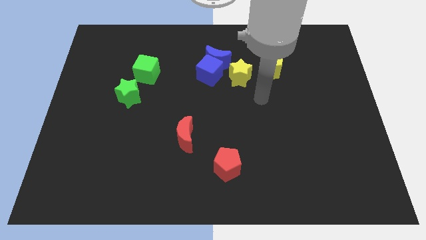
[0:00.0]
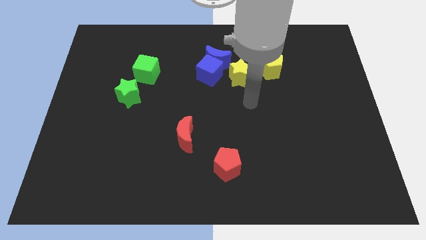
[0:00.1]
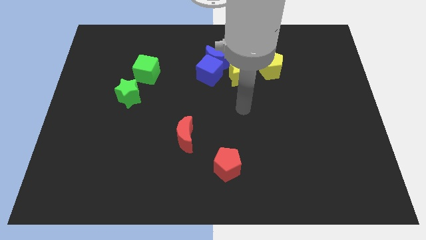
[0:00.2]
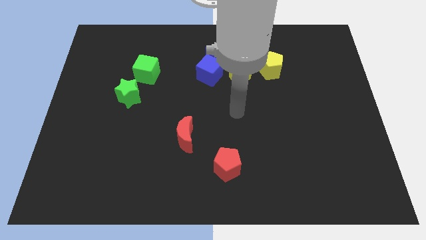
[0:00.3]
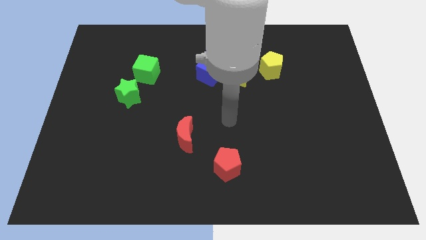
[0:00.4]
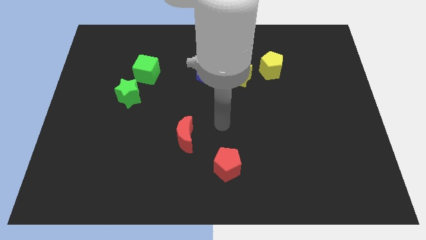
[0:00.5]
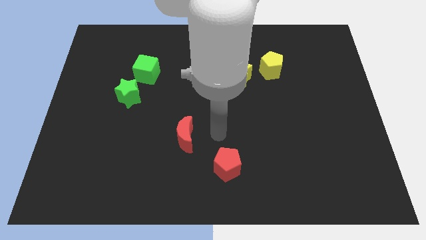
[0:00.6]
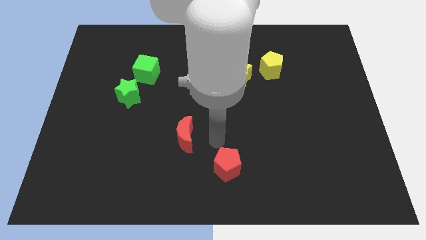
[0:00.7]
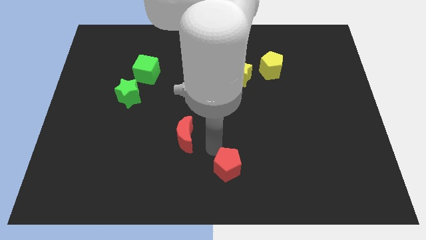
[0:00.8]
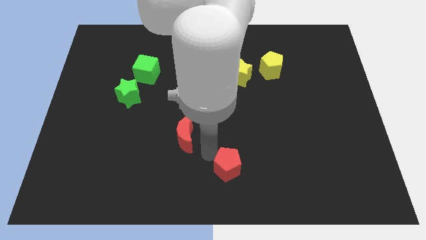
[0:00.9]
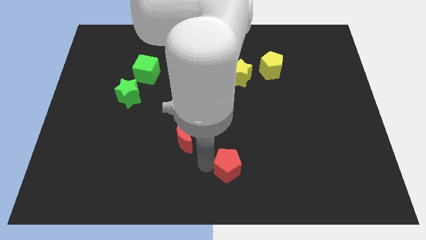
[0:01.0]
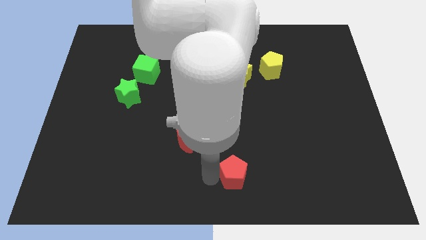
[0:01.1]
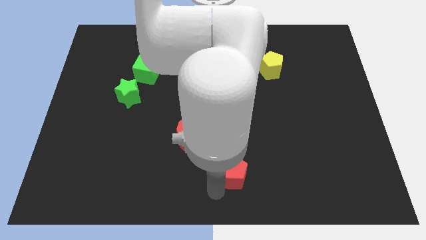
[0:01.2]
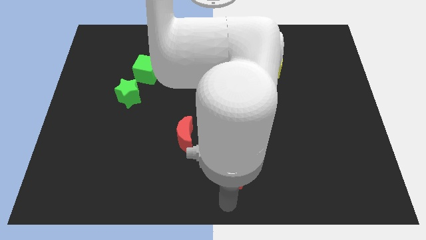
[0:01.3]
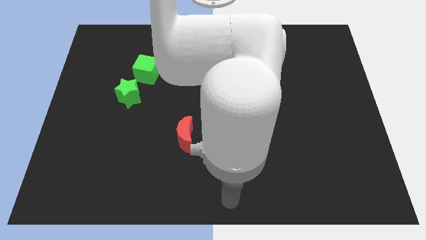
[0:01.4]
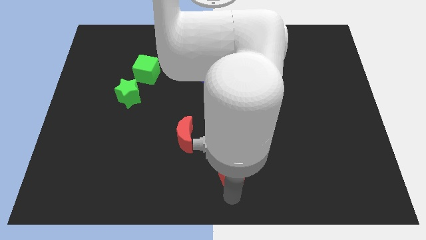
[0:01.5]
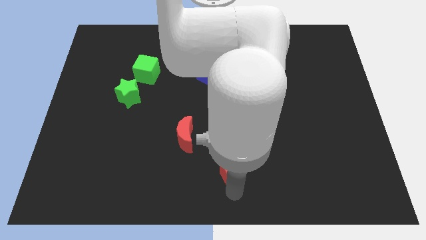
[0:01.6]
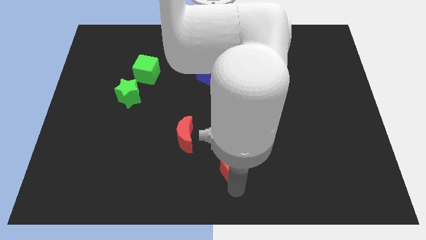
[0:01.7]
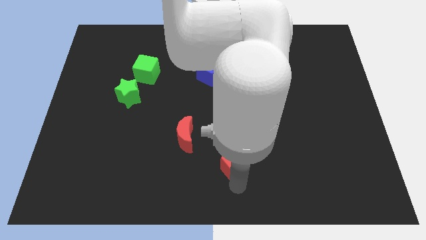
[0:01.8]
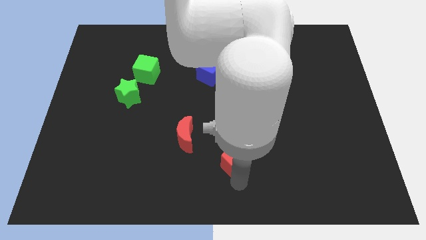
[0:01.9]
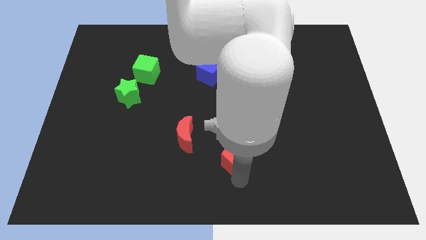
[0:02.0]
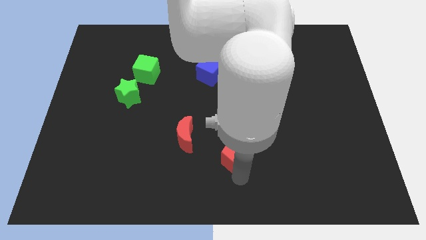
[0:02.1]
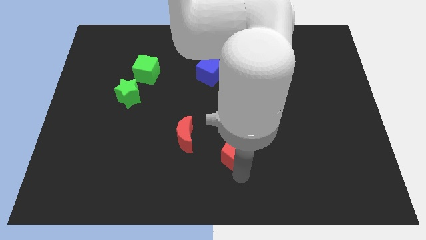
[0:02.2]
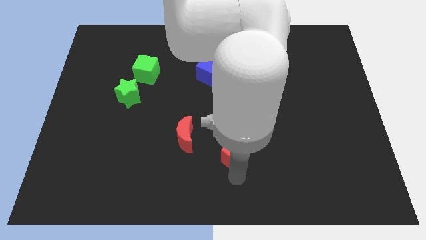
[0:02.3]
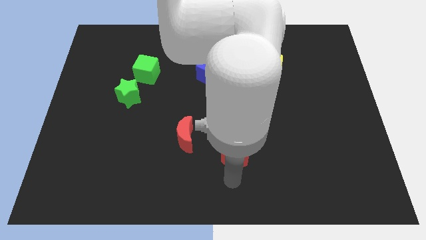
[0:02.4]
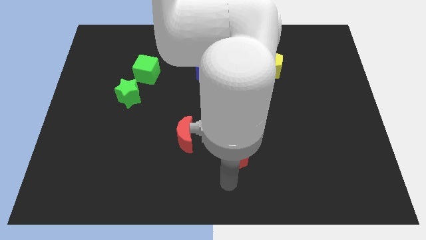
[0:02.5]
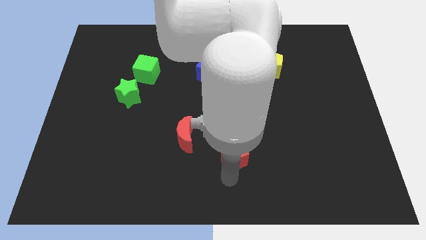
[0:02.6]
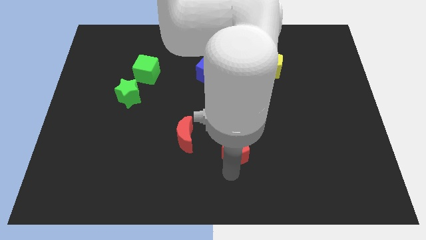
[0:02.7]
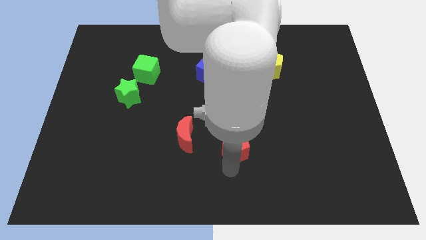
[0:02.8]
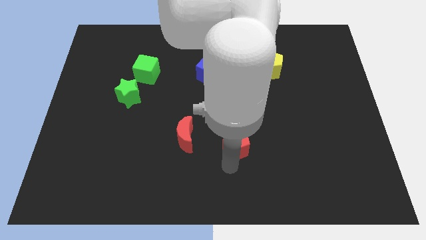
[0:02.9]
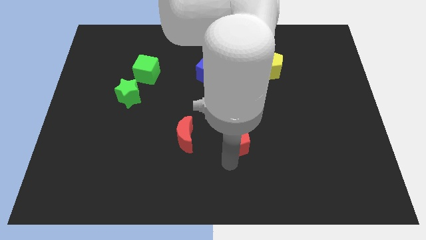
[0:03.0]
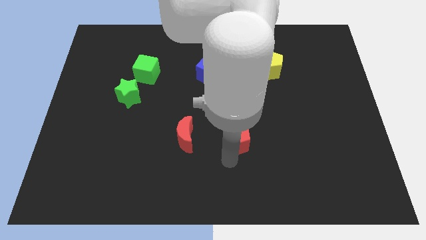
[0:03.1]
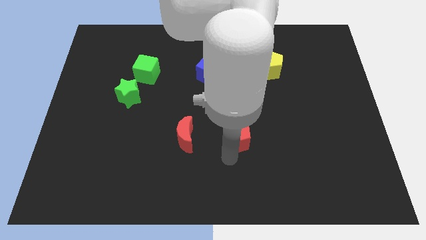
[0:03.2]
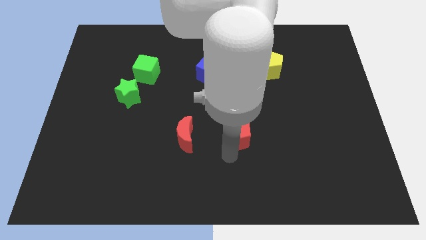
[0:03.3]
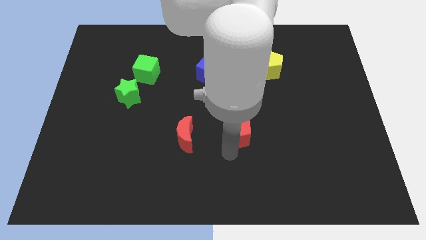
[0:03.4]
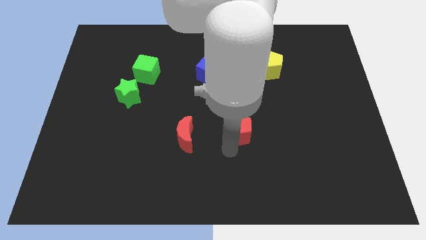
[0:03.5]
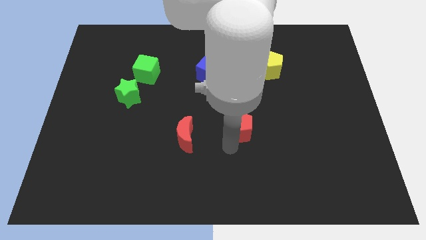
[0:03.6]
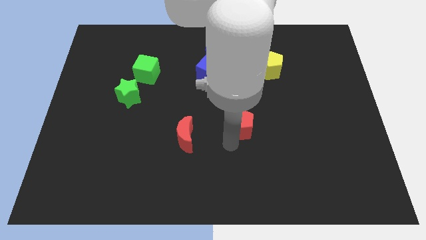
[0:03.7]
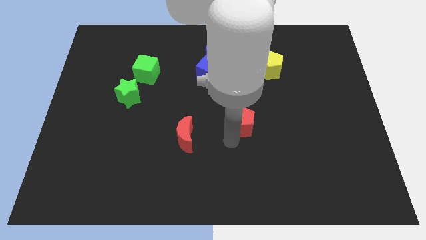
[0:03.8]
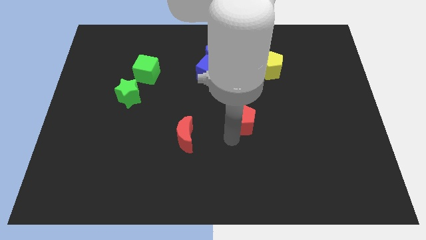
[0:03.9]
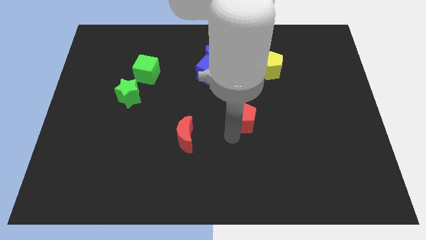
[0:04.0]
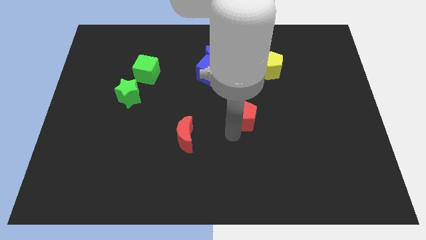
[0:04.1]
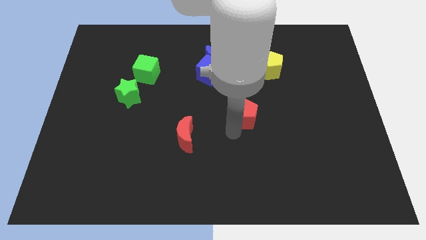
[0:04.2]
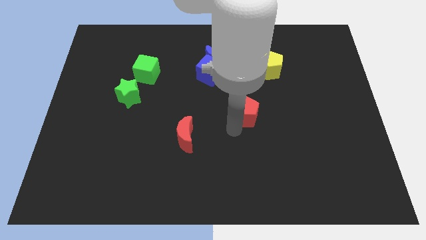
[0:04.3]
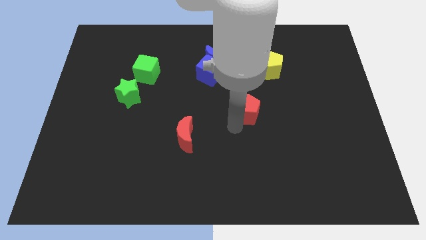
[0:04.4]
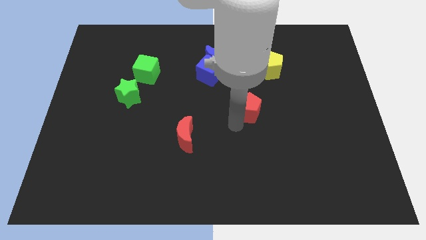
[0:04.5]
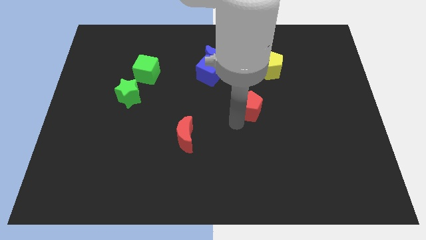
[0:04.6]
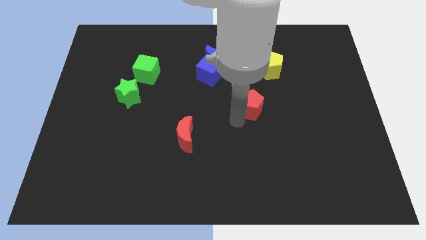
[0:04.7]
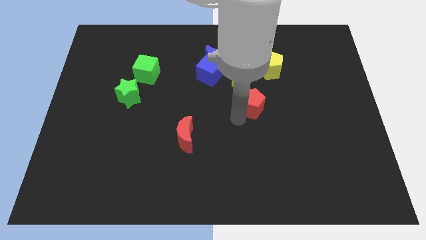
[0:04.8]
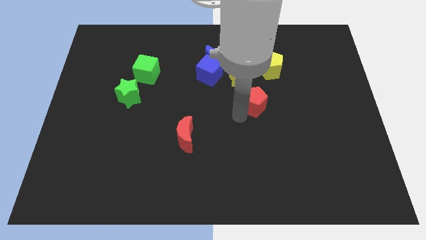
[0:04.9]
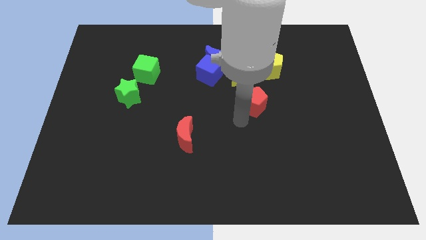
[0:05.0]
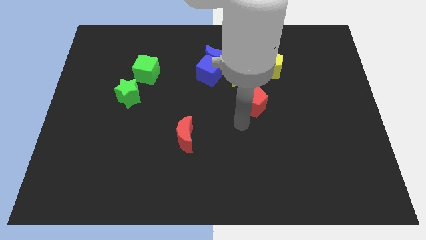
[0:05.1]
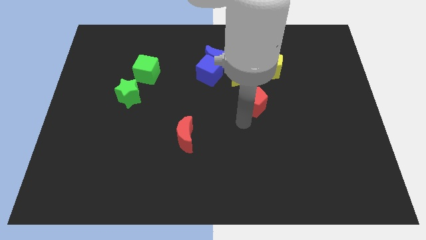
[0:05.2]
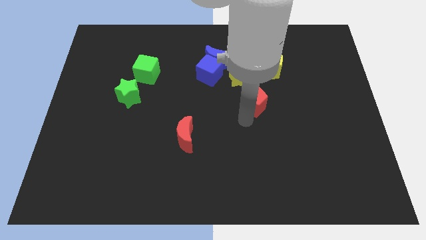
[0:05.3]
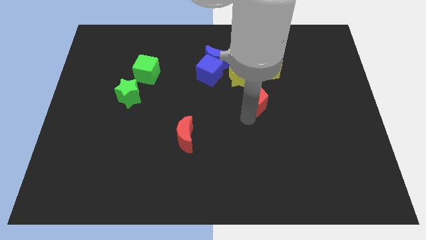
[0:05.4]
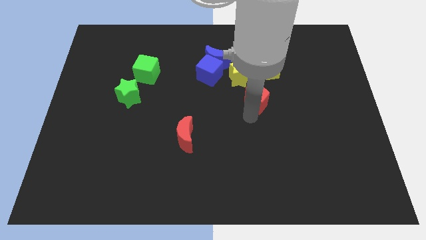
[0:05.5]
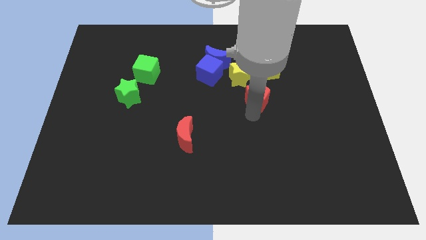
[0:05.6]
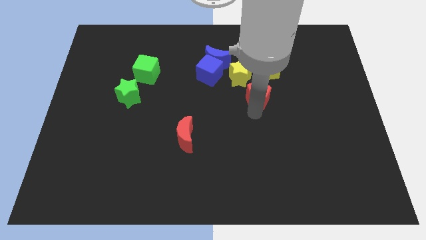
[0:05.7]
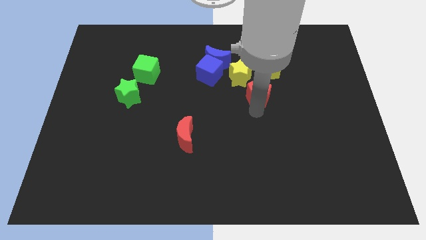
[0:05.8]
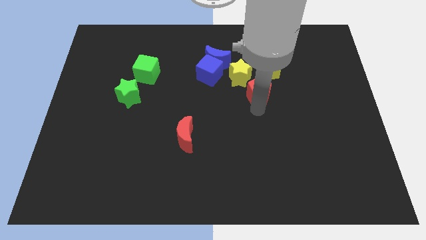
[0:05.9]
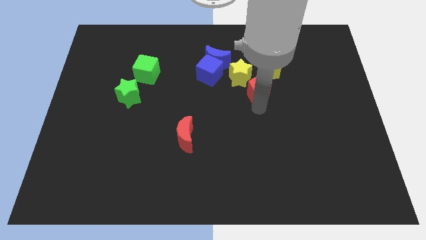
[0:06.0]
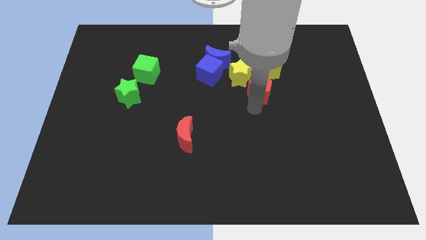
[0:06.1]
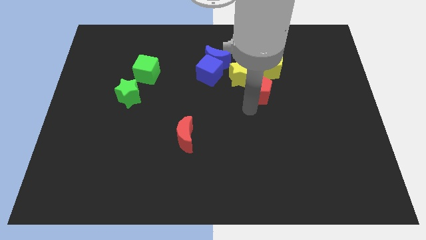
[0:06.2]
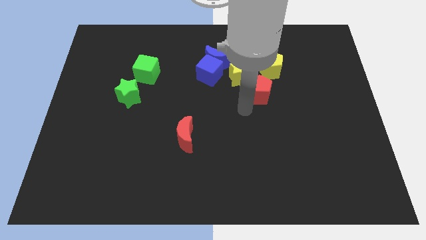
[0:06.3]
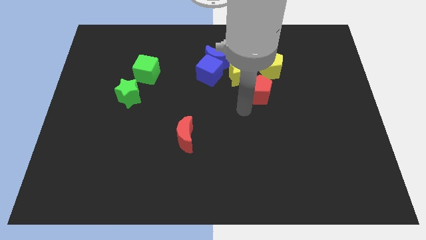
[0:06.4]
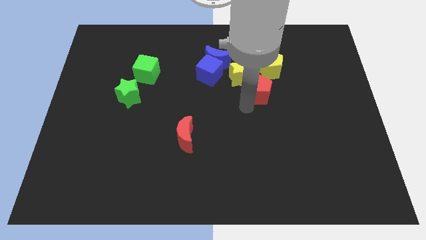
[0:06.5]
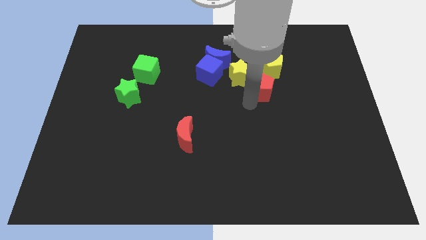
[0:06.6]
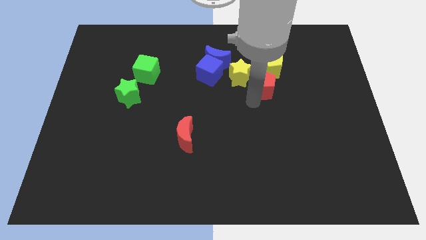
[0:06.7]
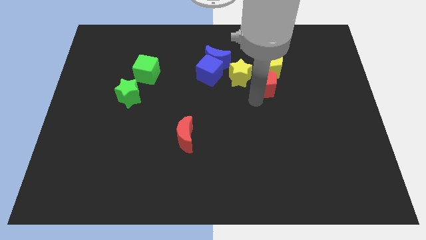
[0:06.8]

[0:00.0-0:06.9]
push the red pentagon to the yellow pentagon

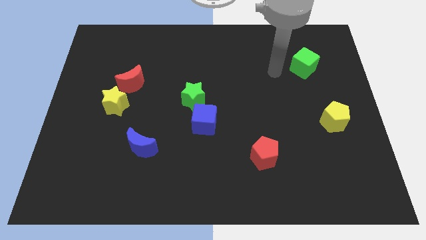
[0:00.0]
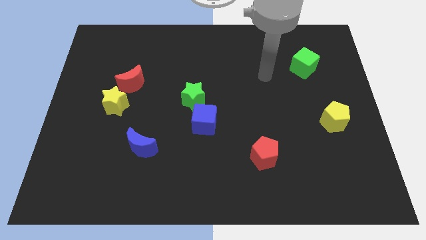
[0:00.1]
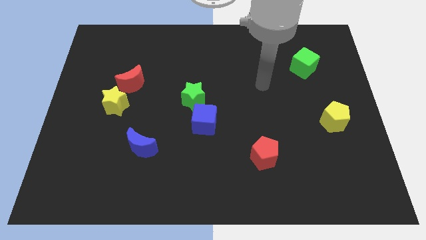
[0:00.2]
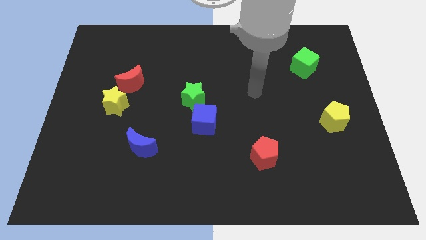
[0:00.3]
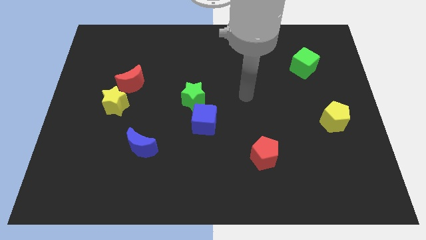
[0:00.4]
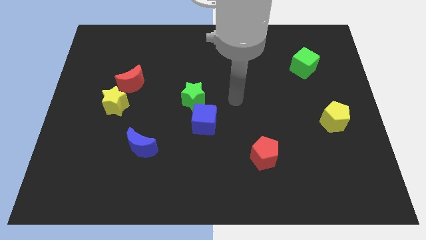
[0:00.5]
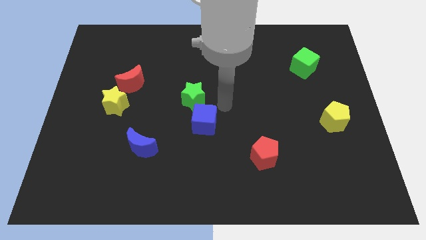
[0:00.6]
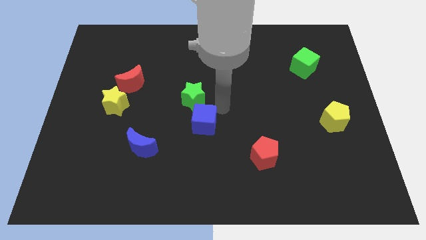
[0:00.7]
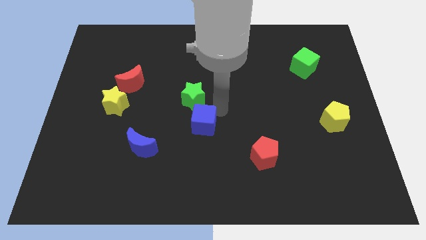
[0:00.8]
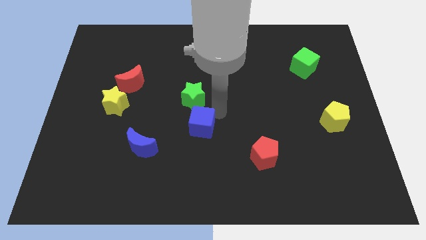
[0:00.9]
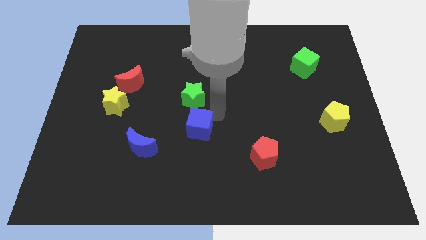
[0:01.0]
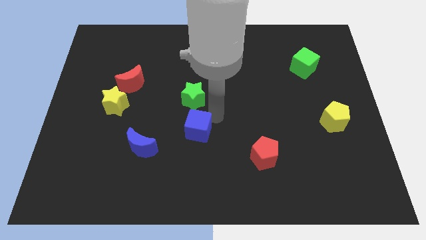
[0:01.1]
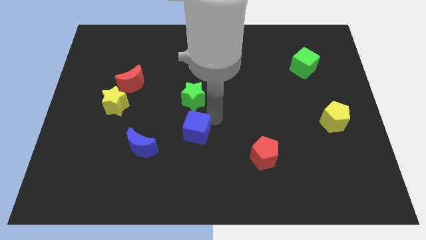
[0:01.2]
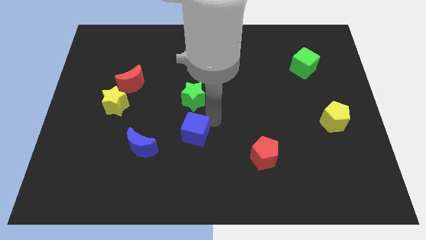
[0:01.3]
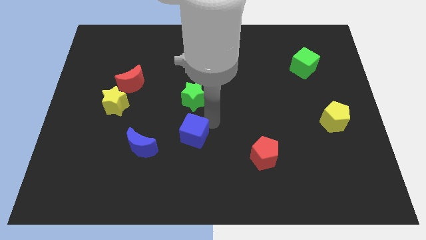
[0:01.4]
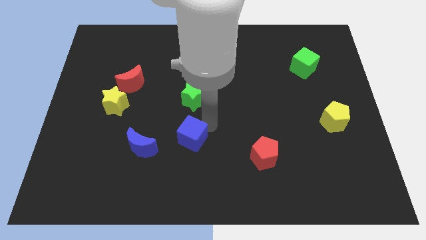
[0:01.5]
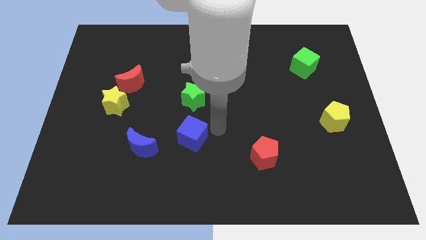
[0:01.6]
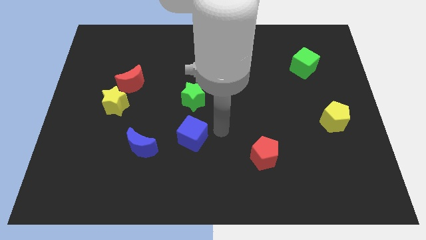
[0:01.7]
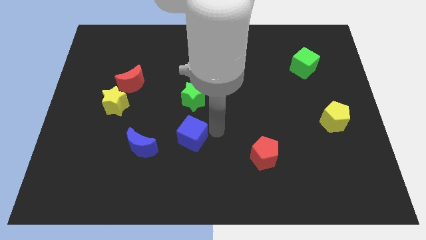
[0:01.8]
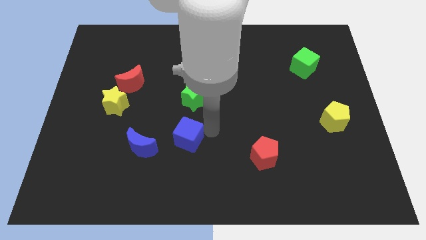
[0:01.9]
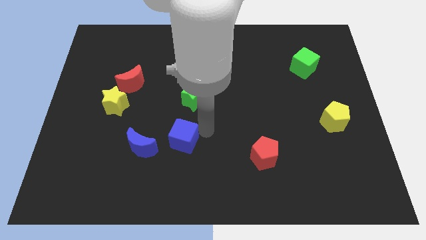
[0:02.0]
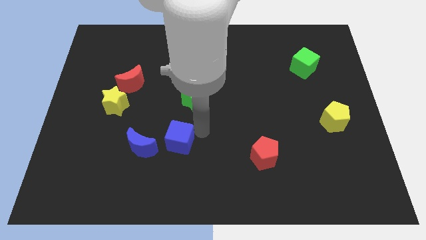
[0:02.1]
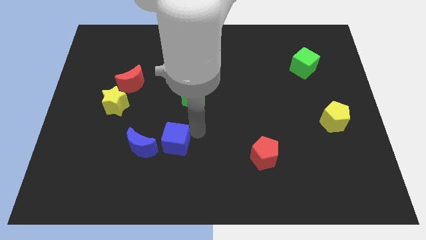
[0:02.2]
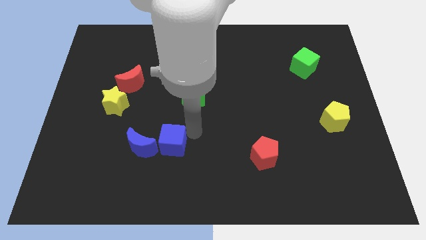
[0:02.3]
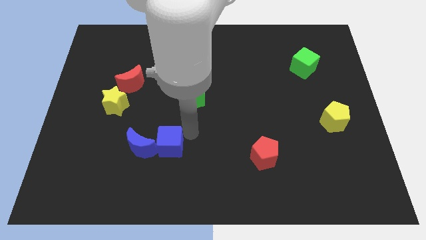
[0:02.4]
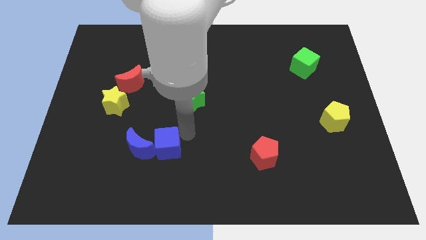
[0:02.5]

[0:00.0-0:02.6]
push the blue cube close to the blue moon
